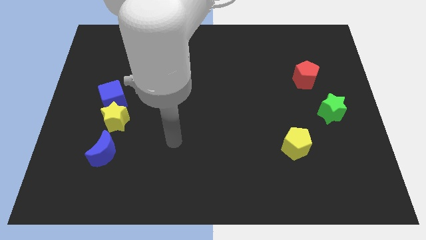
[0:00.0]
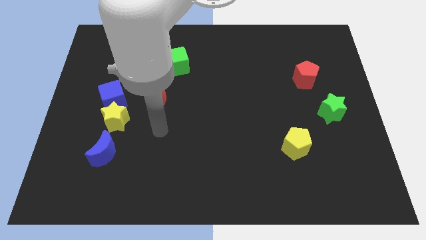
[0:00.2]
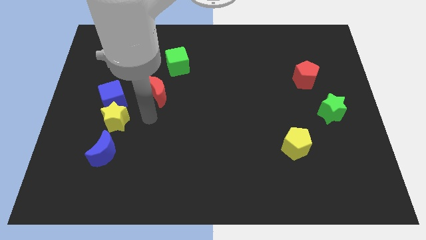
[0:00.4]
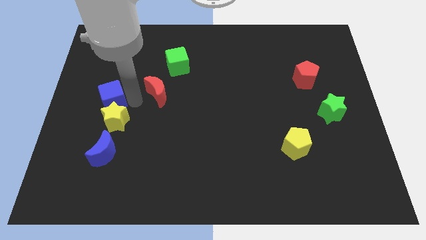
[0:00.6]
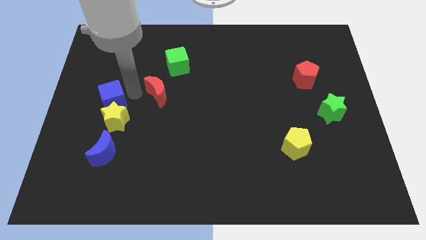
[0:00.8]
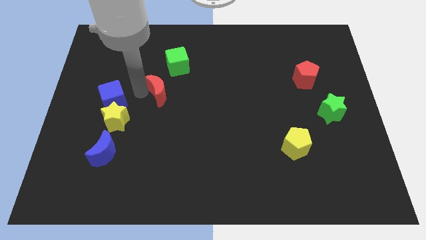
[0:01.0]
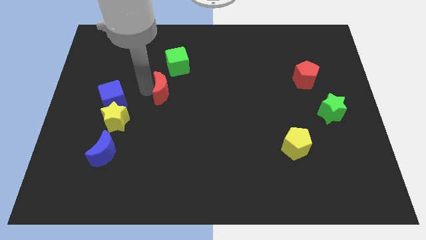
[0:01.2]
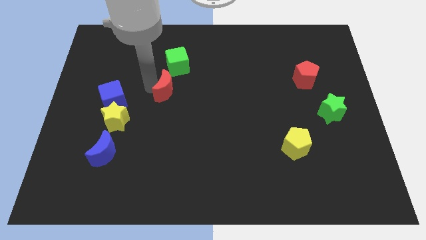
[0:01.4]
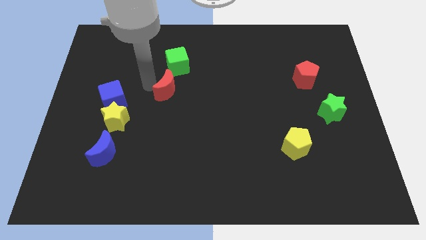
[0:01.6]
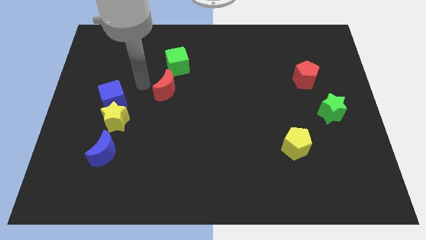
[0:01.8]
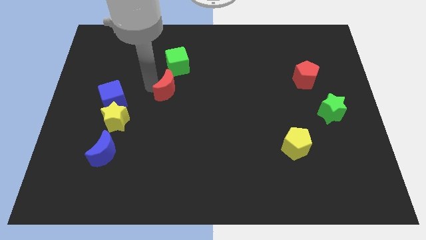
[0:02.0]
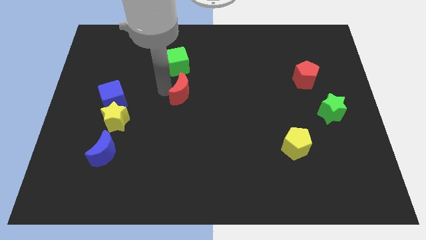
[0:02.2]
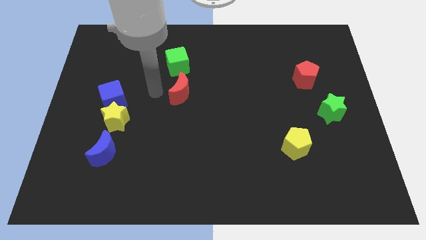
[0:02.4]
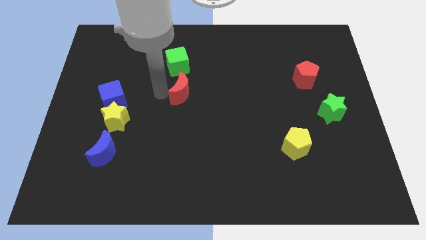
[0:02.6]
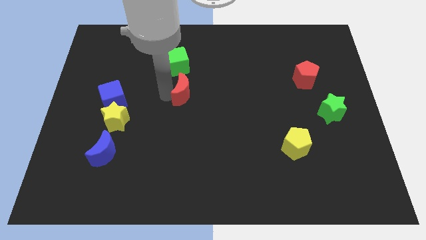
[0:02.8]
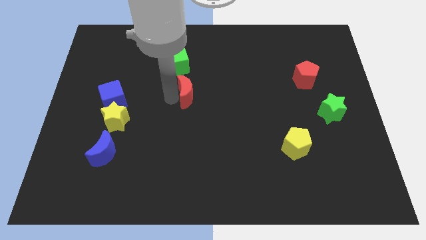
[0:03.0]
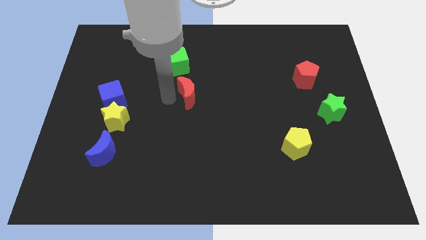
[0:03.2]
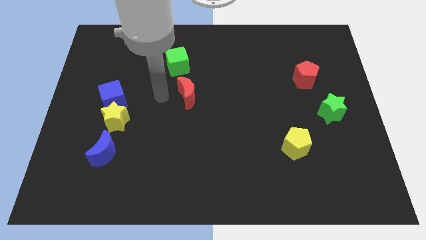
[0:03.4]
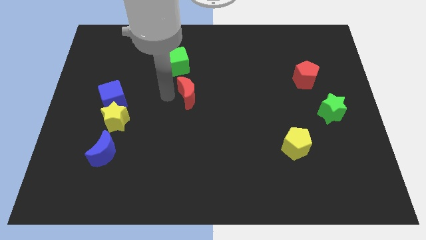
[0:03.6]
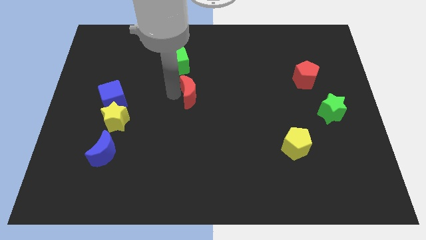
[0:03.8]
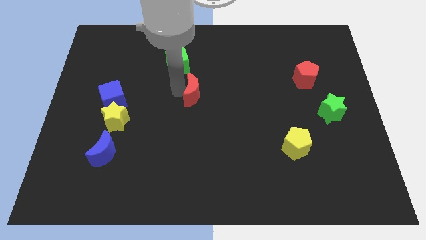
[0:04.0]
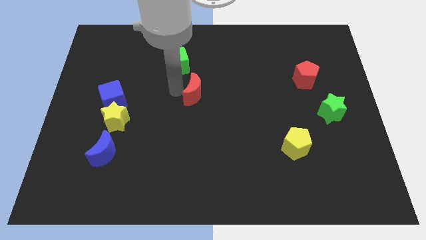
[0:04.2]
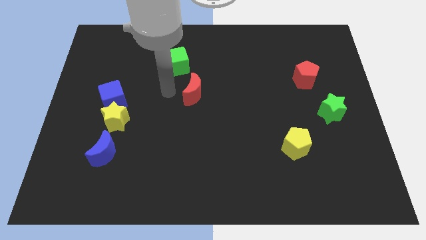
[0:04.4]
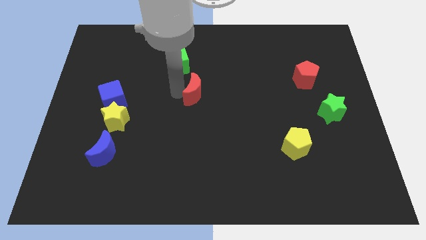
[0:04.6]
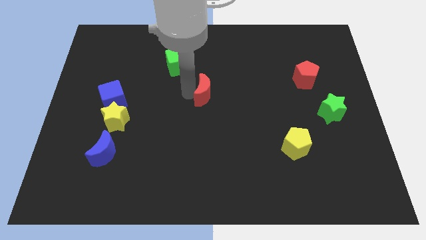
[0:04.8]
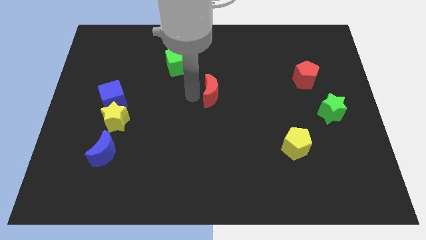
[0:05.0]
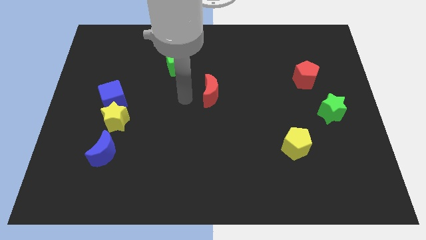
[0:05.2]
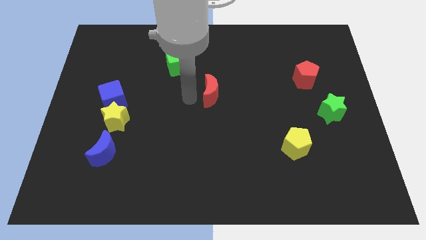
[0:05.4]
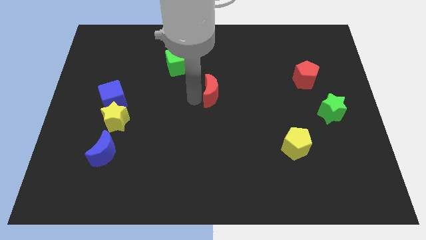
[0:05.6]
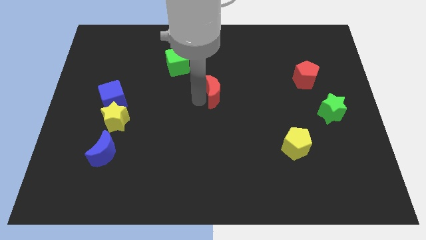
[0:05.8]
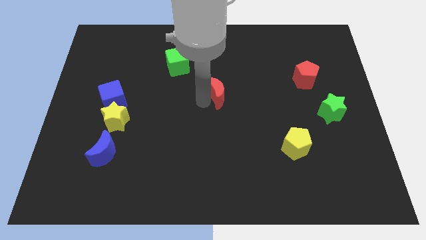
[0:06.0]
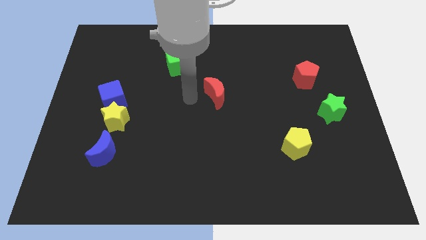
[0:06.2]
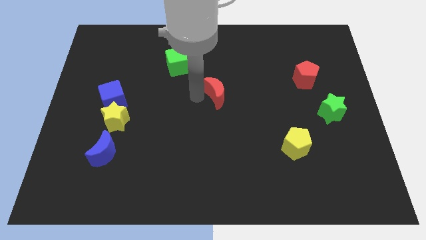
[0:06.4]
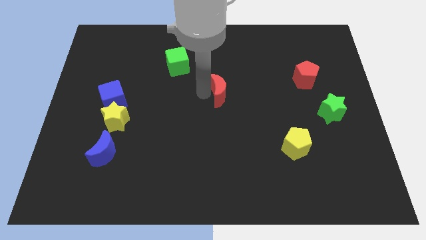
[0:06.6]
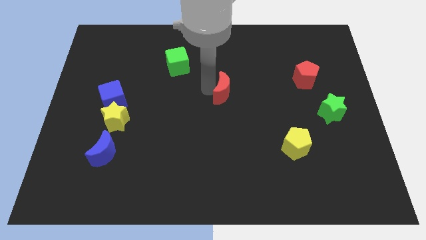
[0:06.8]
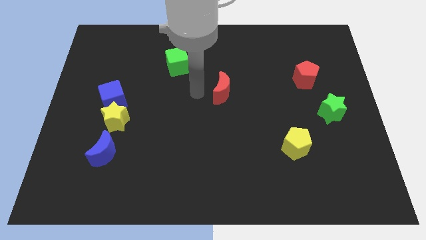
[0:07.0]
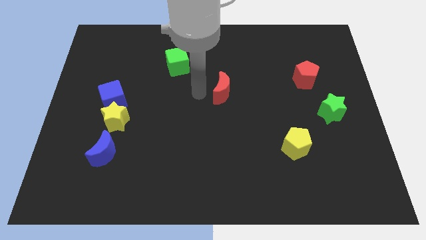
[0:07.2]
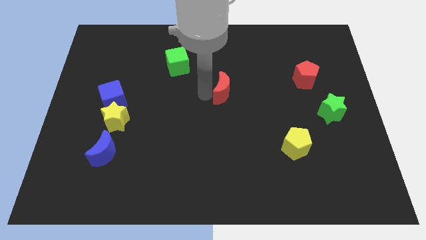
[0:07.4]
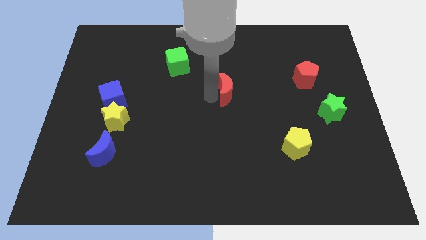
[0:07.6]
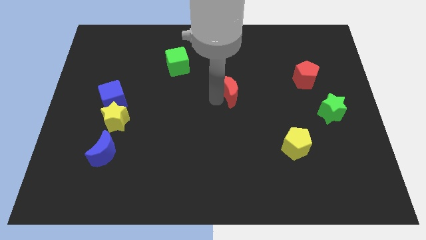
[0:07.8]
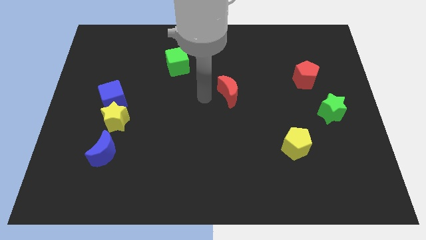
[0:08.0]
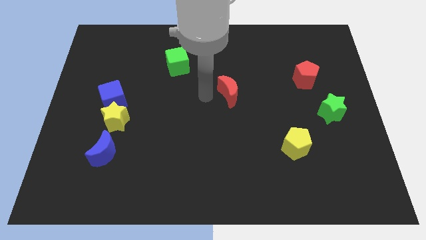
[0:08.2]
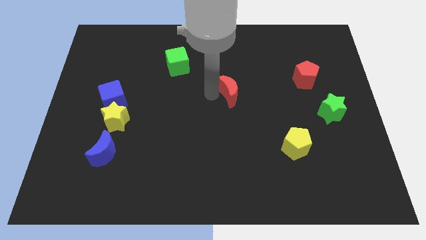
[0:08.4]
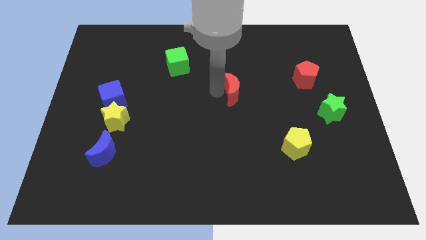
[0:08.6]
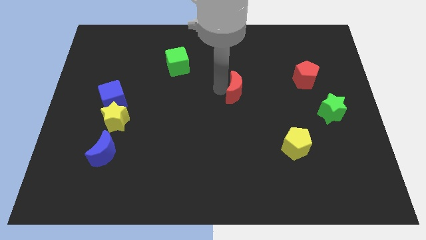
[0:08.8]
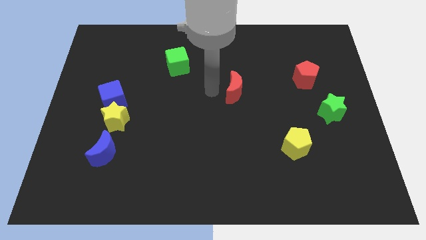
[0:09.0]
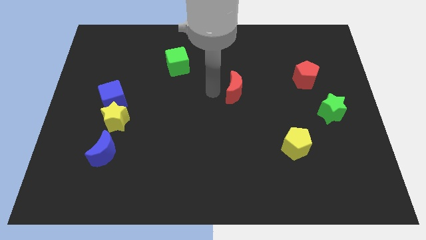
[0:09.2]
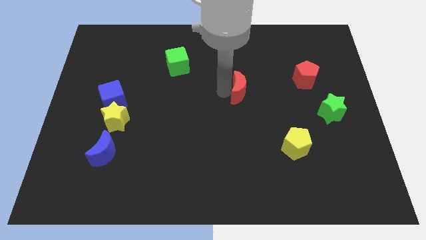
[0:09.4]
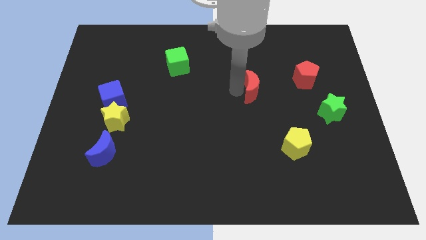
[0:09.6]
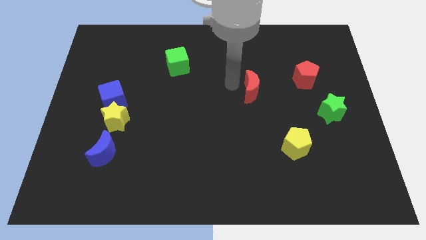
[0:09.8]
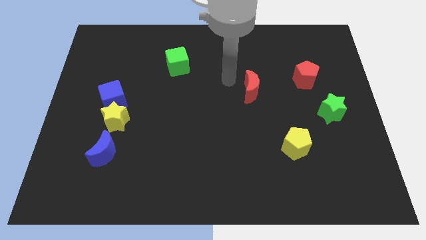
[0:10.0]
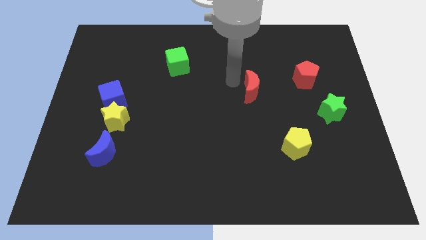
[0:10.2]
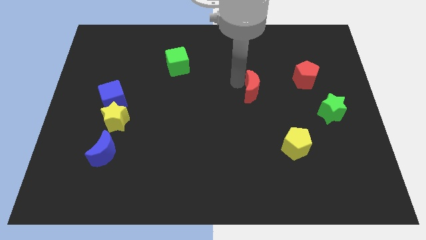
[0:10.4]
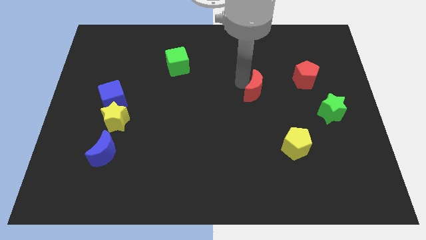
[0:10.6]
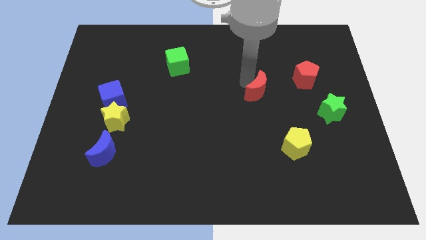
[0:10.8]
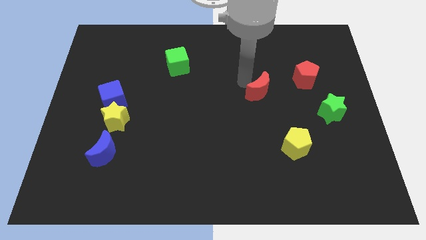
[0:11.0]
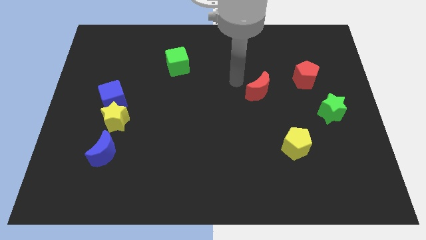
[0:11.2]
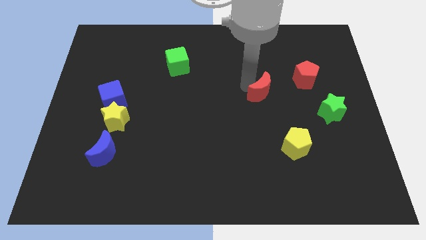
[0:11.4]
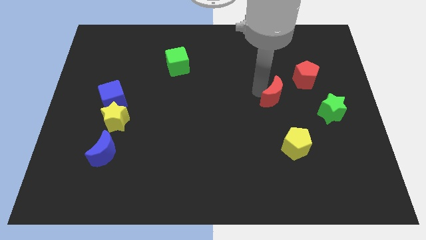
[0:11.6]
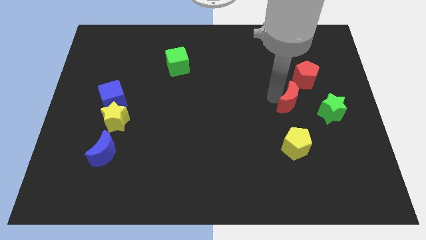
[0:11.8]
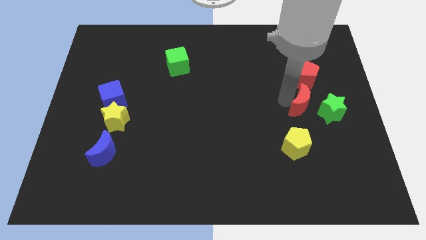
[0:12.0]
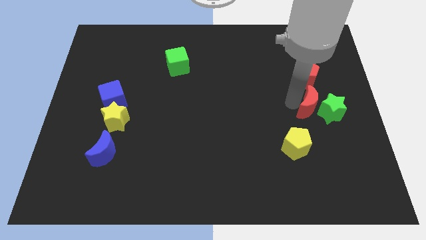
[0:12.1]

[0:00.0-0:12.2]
slide the red moon next to the green star

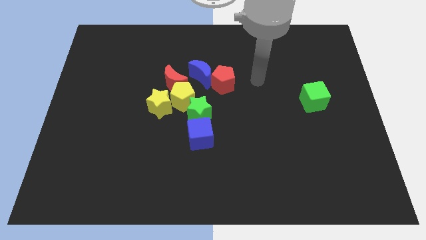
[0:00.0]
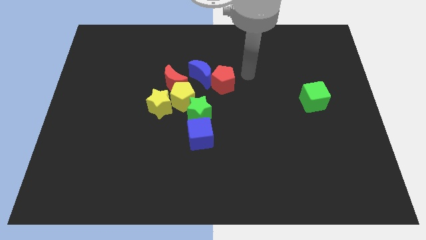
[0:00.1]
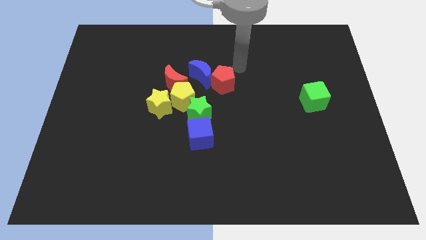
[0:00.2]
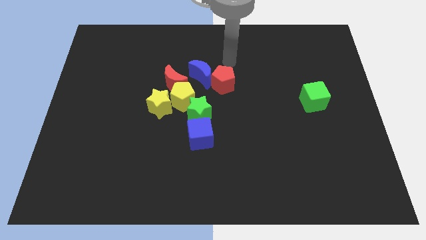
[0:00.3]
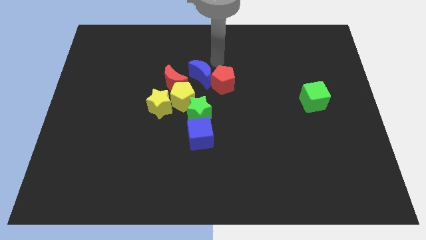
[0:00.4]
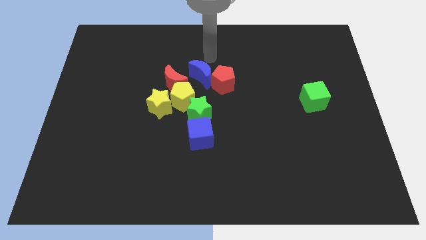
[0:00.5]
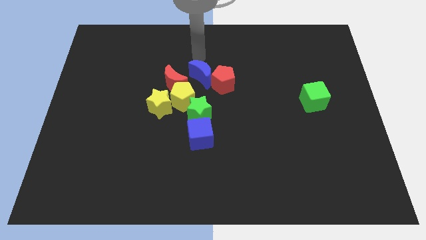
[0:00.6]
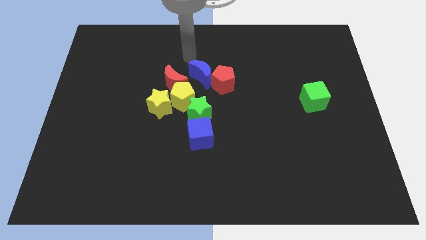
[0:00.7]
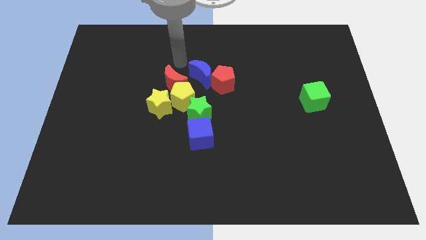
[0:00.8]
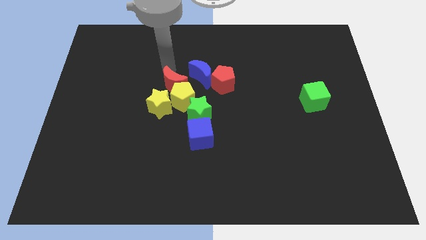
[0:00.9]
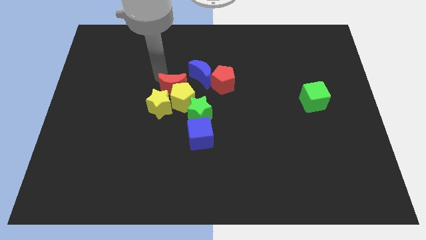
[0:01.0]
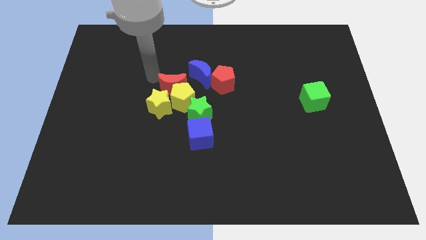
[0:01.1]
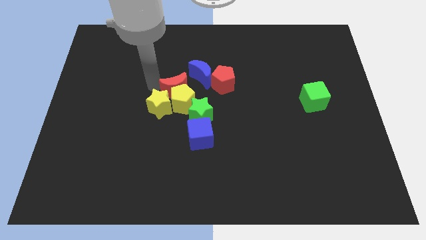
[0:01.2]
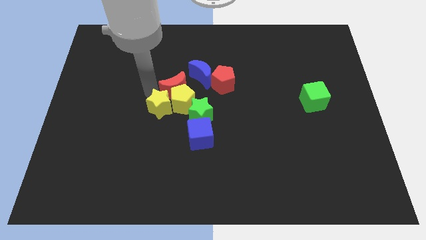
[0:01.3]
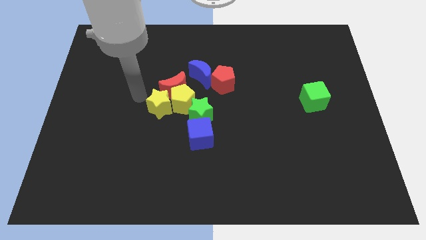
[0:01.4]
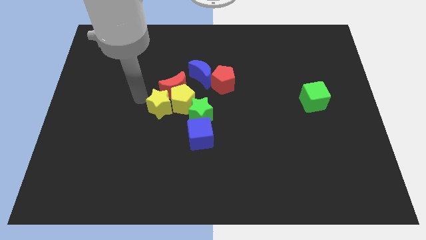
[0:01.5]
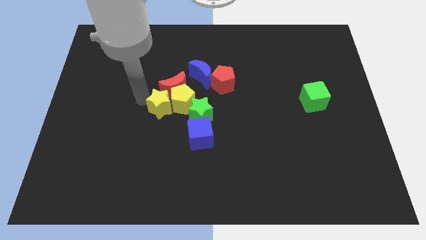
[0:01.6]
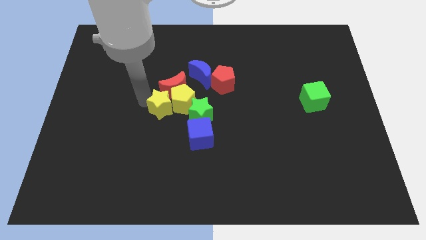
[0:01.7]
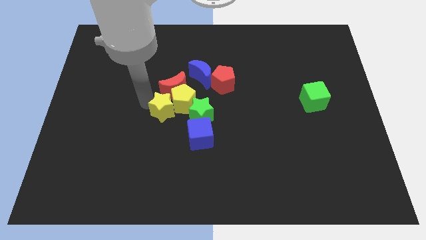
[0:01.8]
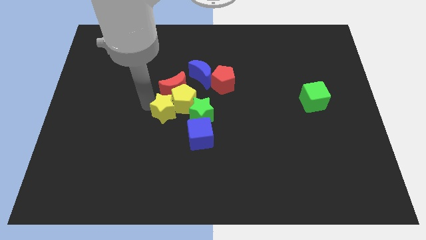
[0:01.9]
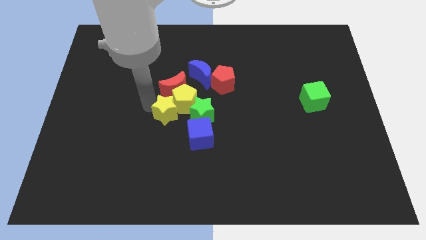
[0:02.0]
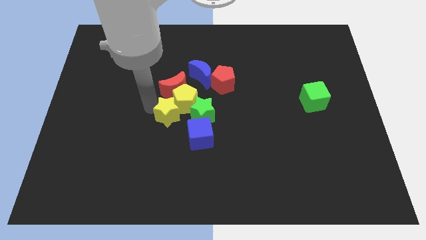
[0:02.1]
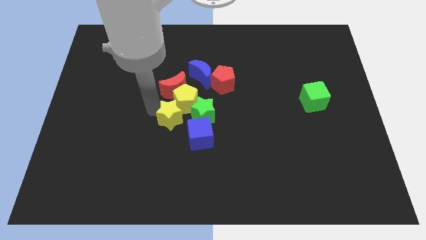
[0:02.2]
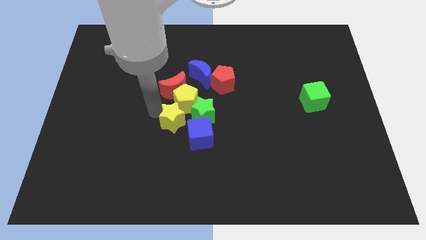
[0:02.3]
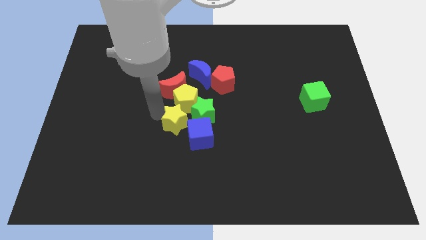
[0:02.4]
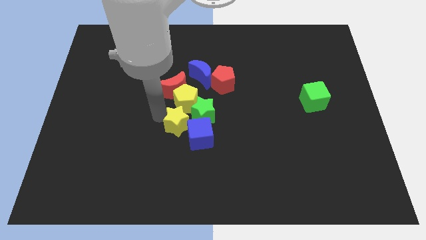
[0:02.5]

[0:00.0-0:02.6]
slide the yellow star close to the green star
